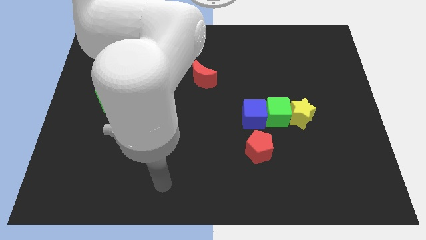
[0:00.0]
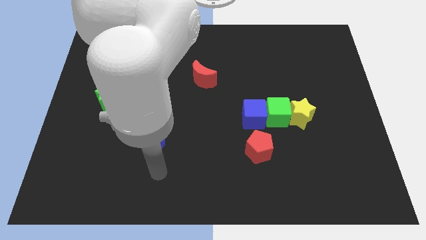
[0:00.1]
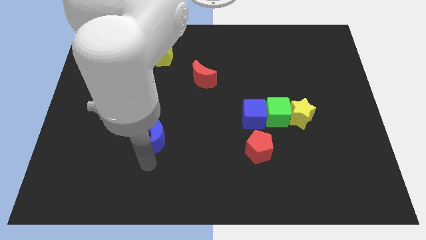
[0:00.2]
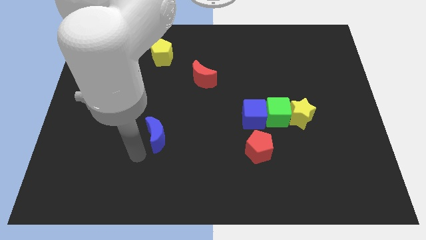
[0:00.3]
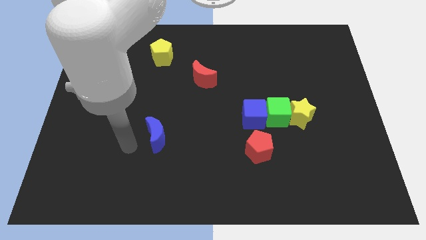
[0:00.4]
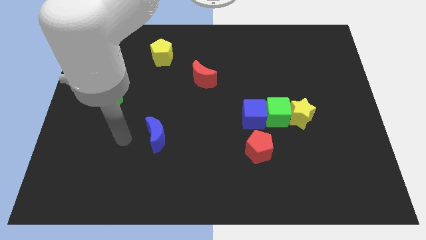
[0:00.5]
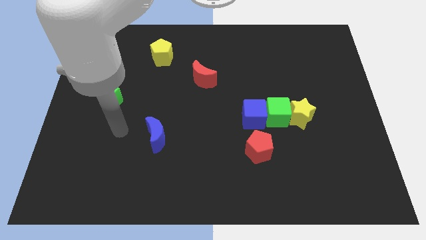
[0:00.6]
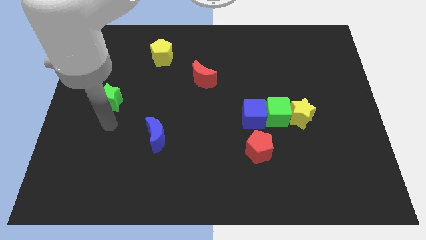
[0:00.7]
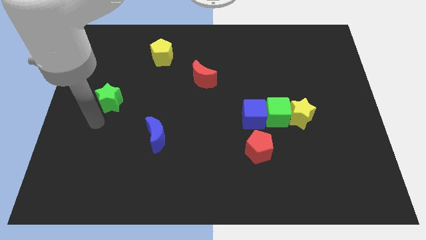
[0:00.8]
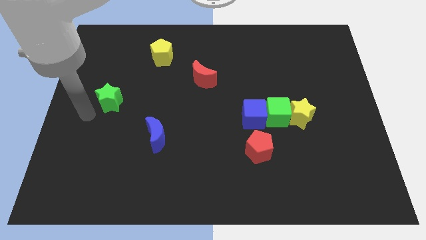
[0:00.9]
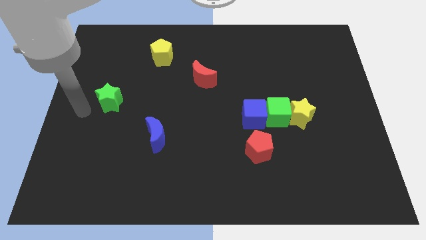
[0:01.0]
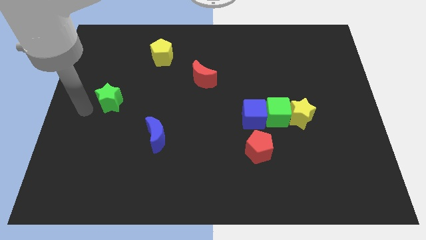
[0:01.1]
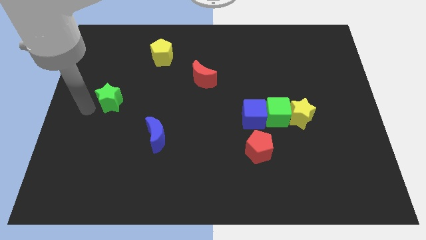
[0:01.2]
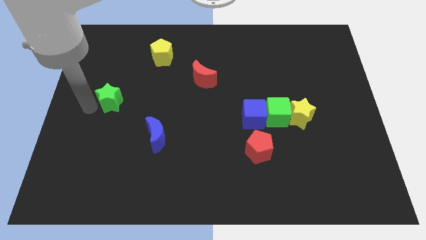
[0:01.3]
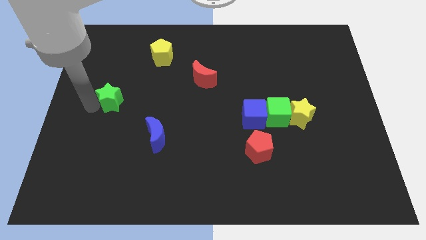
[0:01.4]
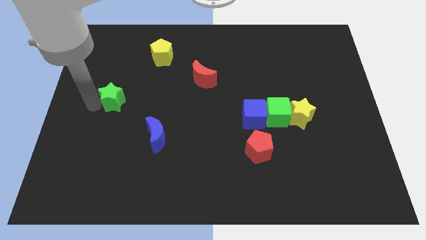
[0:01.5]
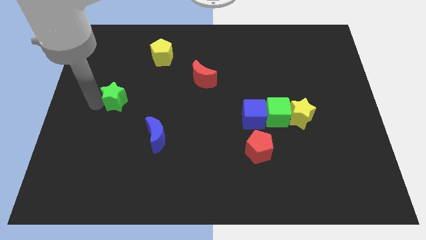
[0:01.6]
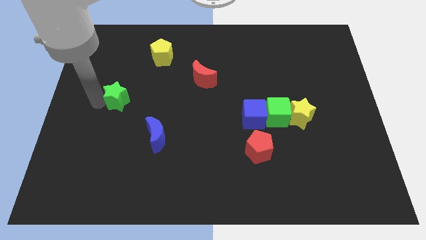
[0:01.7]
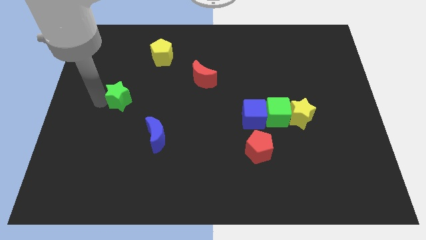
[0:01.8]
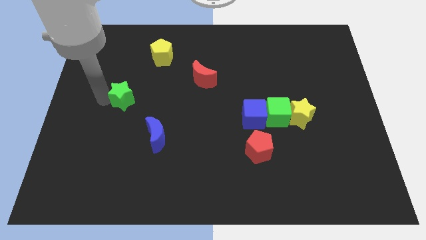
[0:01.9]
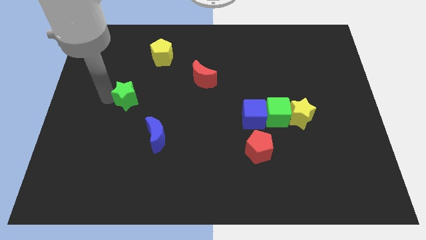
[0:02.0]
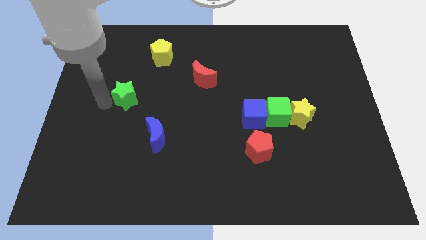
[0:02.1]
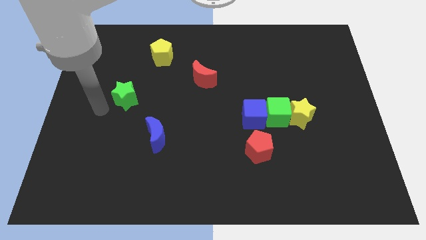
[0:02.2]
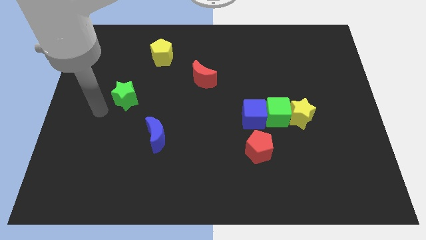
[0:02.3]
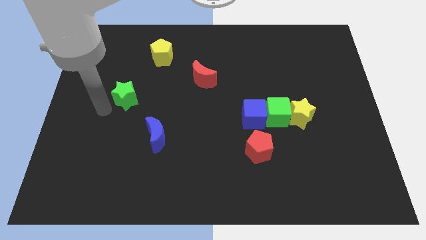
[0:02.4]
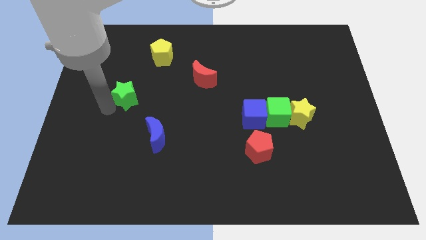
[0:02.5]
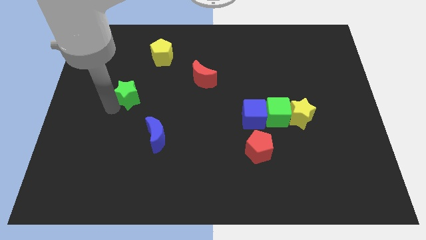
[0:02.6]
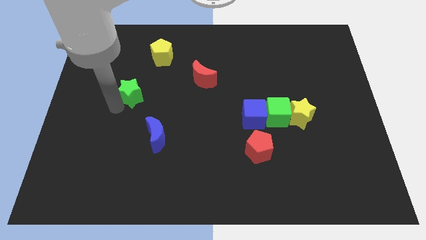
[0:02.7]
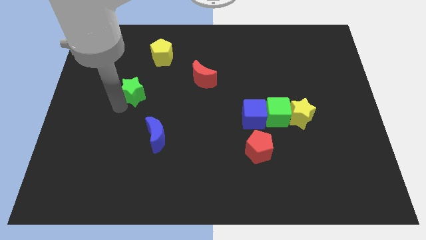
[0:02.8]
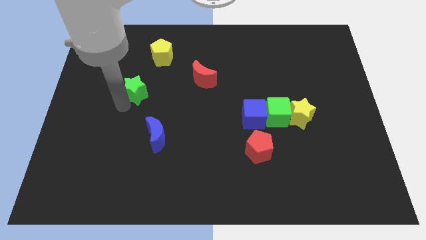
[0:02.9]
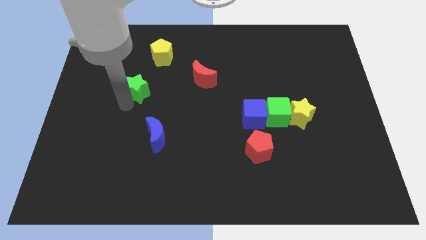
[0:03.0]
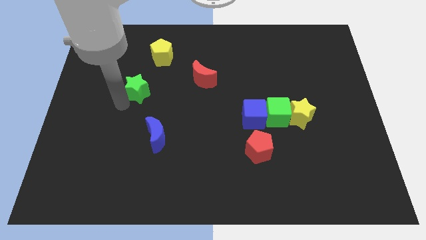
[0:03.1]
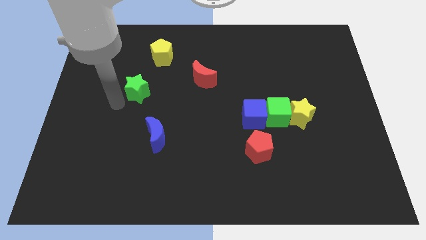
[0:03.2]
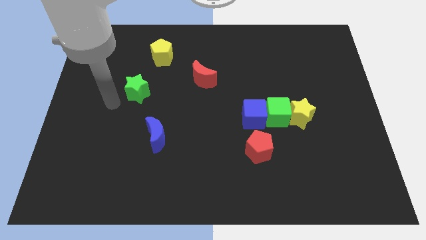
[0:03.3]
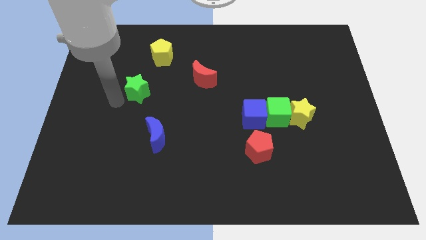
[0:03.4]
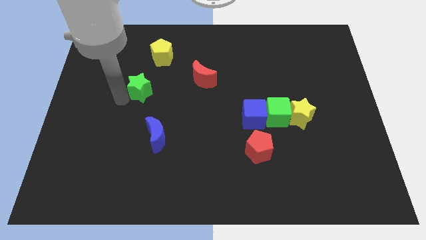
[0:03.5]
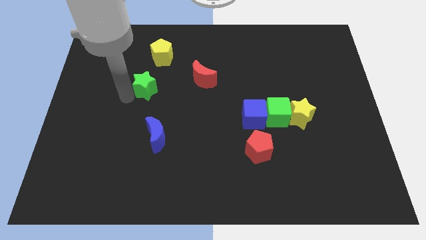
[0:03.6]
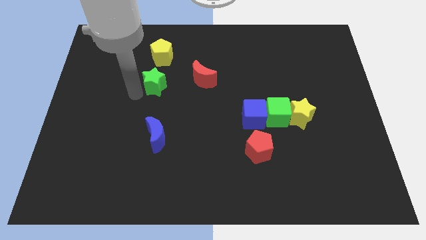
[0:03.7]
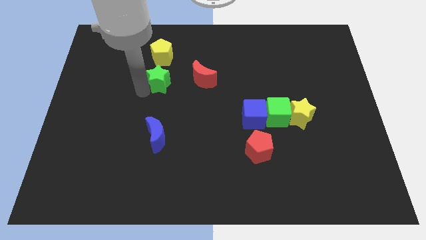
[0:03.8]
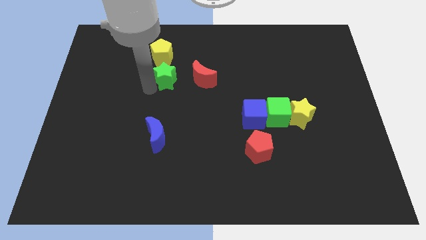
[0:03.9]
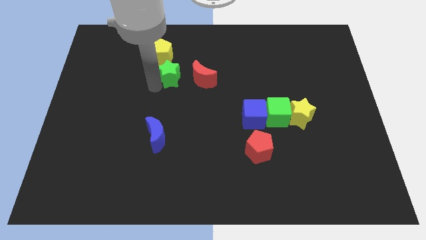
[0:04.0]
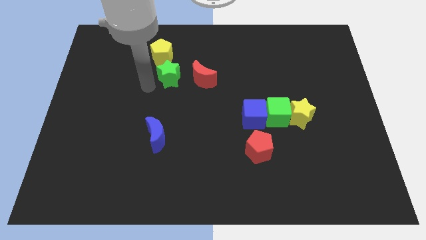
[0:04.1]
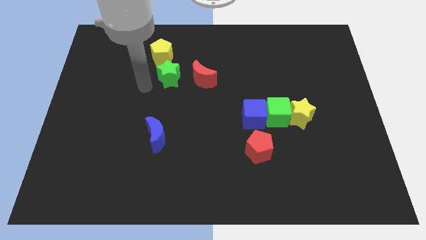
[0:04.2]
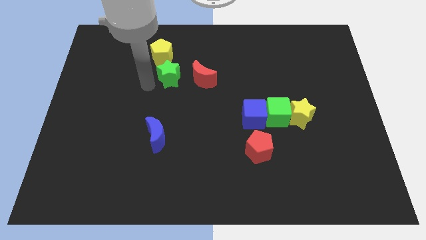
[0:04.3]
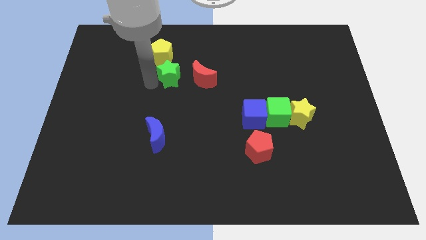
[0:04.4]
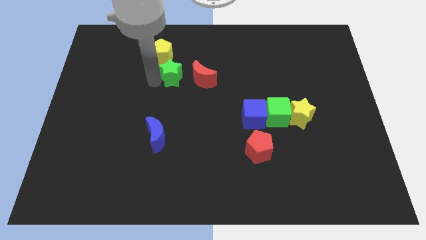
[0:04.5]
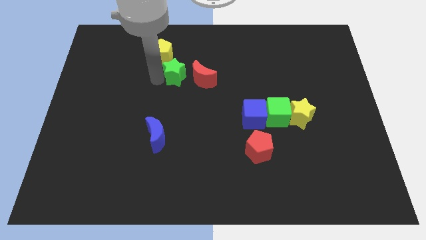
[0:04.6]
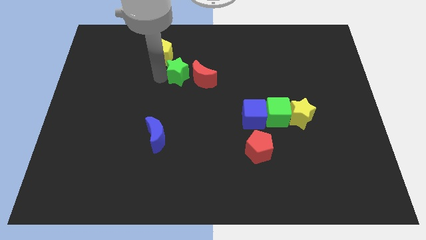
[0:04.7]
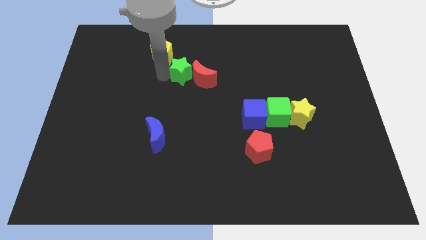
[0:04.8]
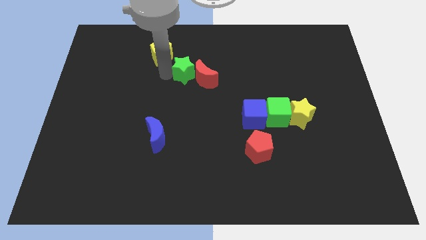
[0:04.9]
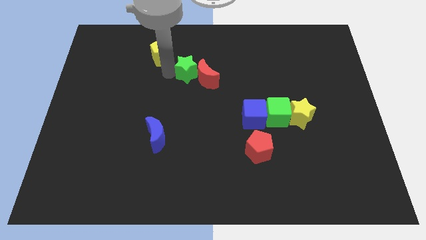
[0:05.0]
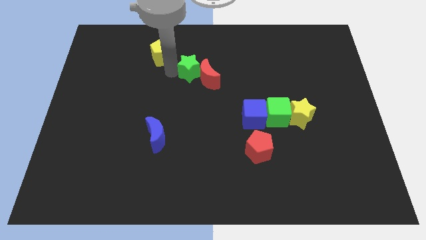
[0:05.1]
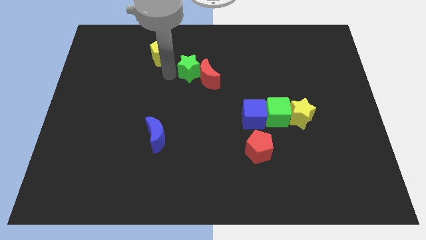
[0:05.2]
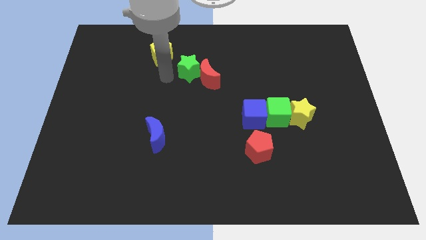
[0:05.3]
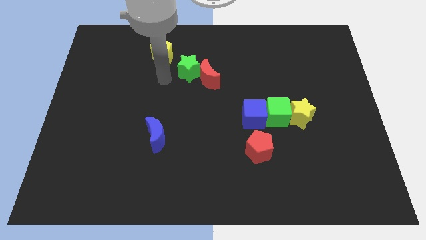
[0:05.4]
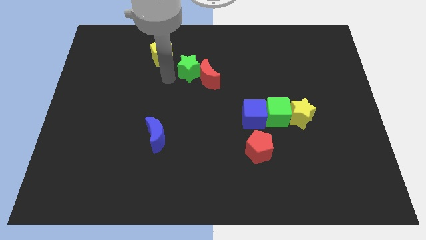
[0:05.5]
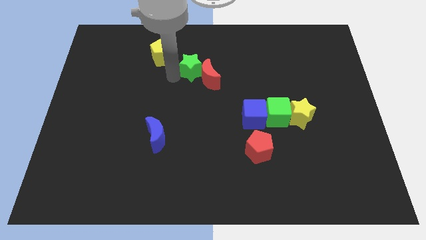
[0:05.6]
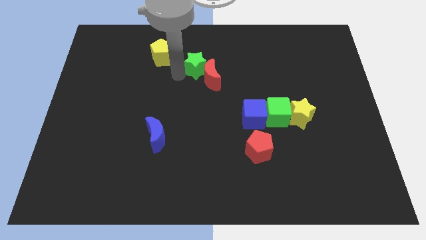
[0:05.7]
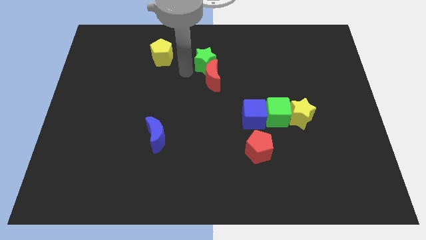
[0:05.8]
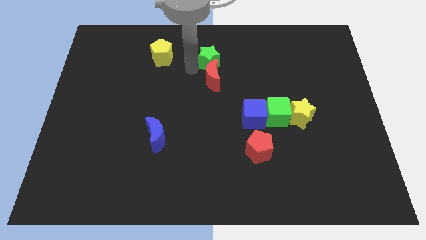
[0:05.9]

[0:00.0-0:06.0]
move the green star to the top right of the red moon
